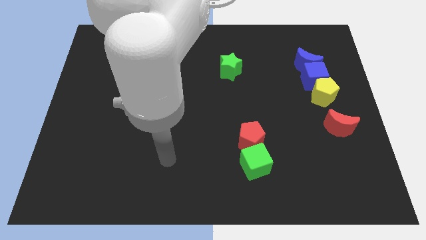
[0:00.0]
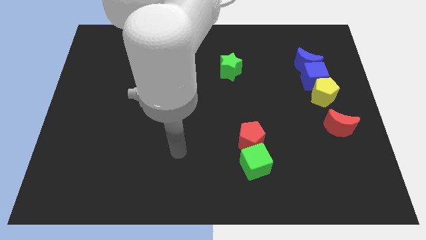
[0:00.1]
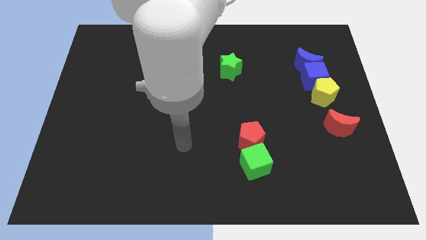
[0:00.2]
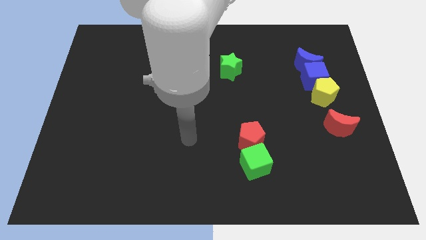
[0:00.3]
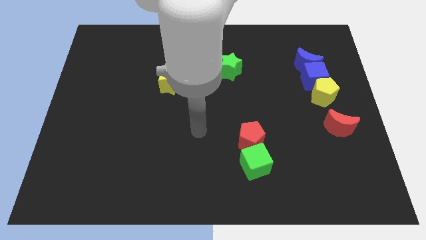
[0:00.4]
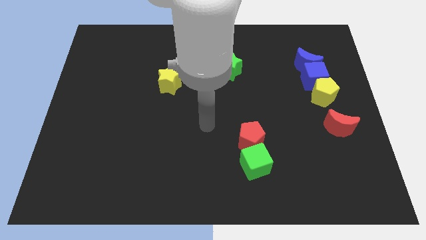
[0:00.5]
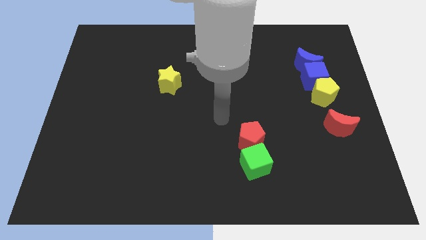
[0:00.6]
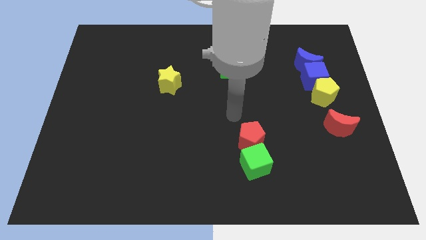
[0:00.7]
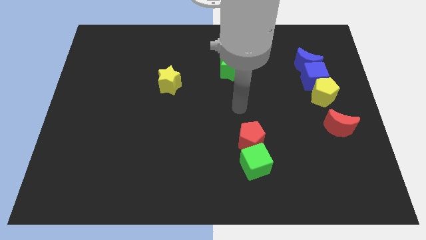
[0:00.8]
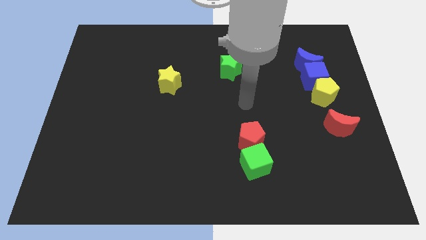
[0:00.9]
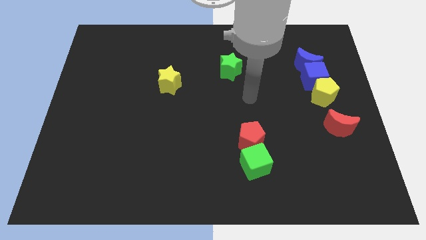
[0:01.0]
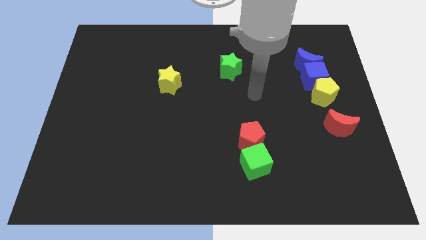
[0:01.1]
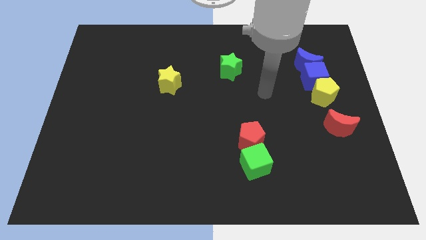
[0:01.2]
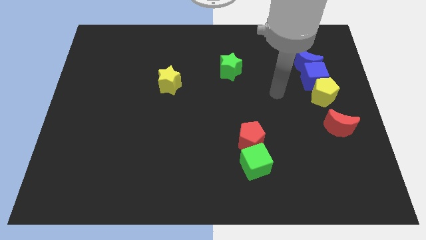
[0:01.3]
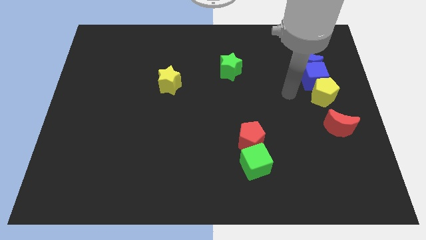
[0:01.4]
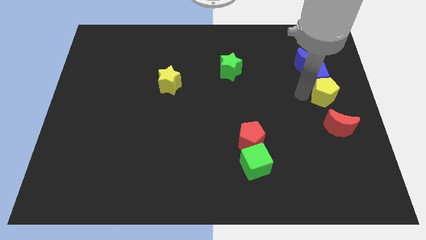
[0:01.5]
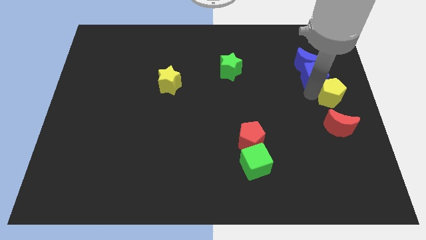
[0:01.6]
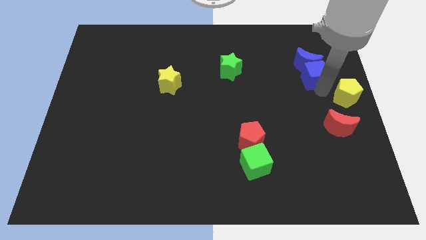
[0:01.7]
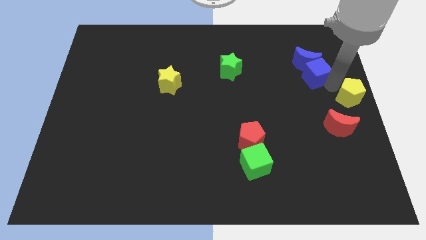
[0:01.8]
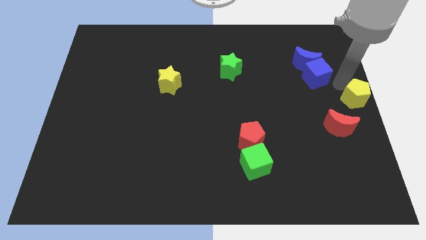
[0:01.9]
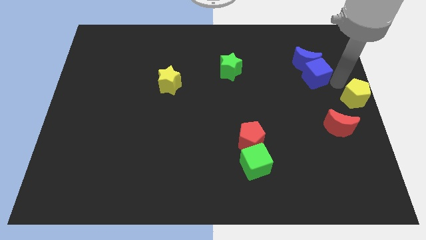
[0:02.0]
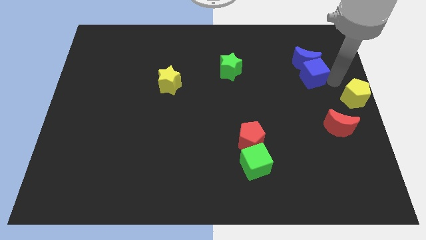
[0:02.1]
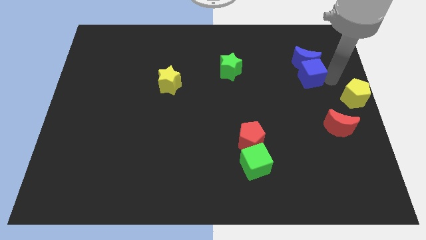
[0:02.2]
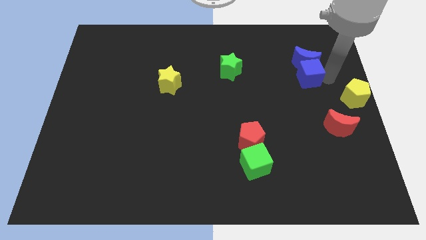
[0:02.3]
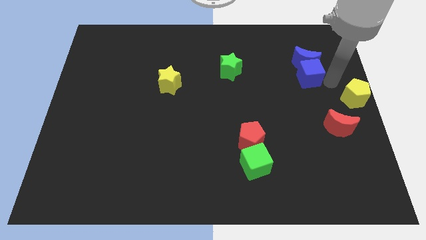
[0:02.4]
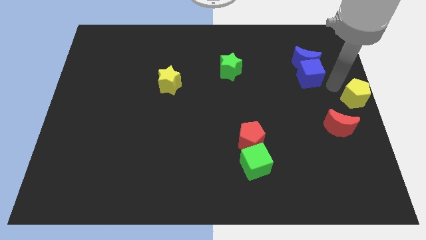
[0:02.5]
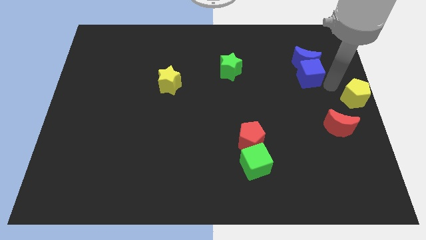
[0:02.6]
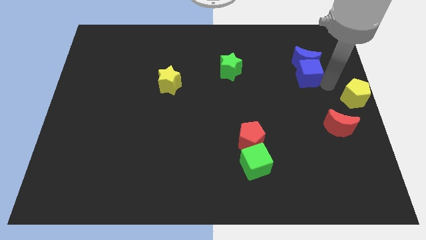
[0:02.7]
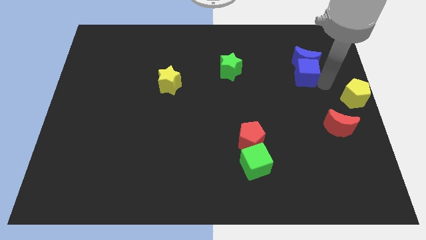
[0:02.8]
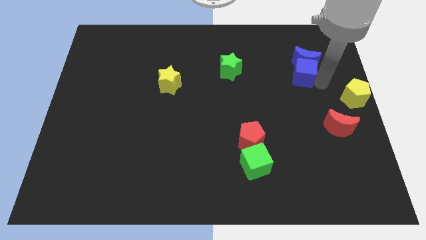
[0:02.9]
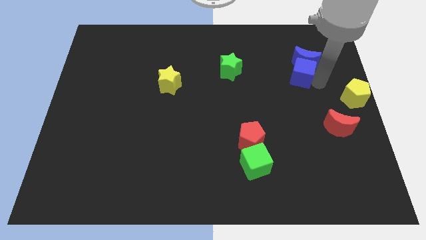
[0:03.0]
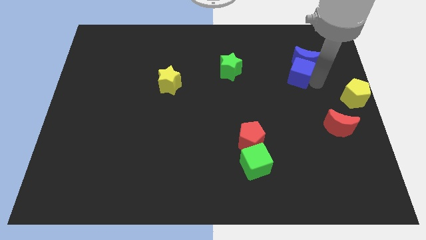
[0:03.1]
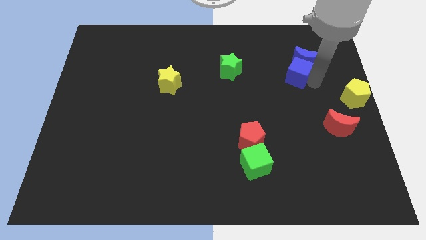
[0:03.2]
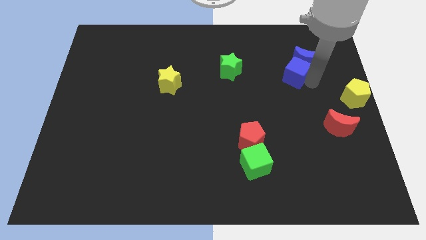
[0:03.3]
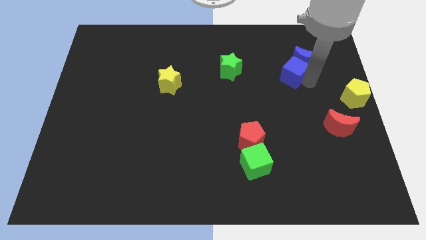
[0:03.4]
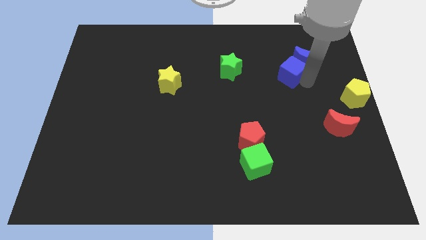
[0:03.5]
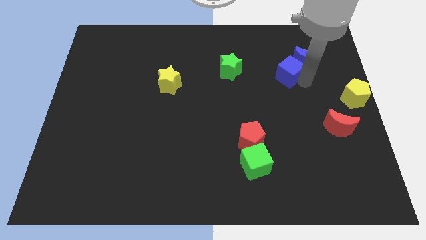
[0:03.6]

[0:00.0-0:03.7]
move the blue cube away from the blue moon and yellow pentagon

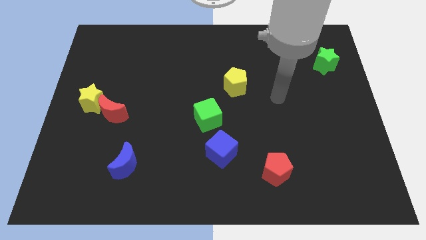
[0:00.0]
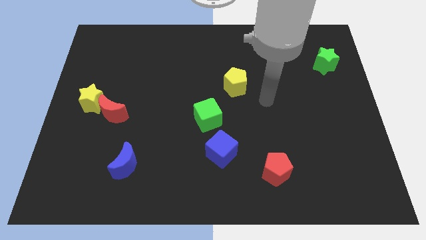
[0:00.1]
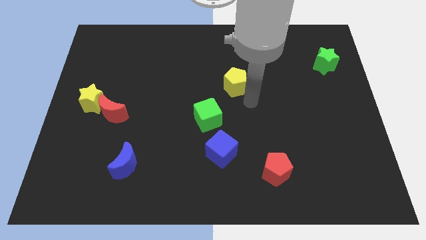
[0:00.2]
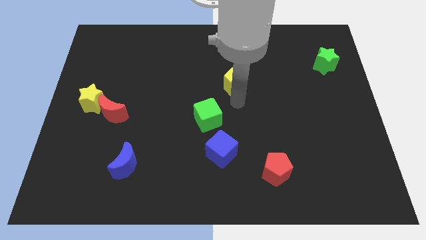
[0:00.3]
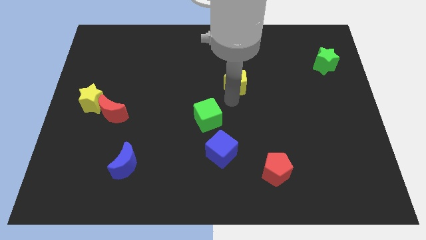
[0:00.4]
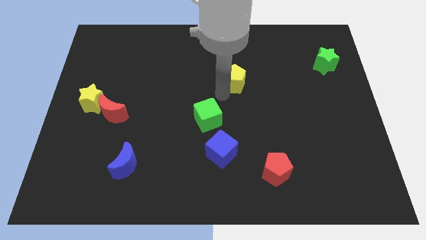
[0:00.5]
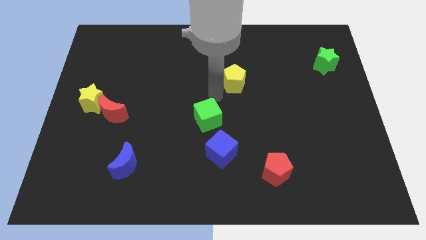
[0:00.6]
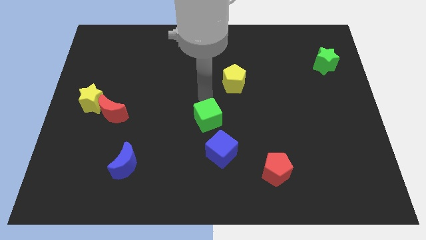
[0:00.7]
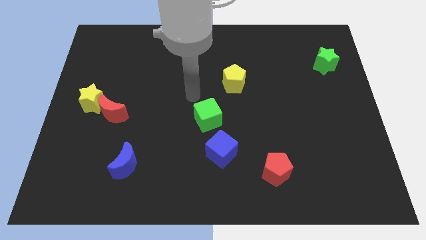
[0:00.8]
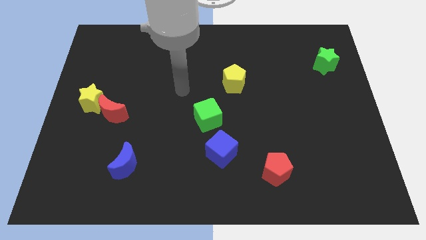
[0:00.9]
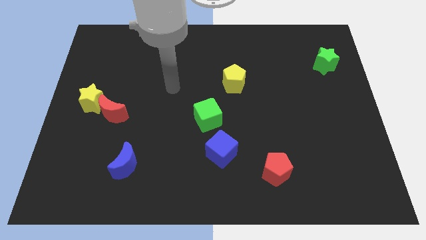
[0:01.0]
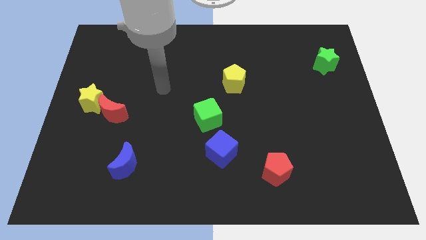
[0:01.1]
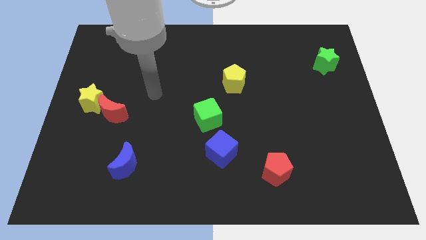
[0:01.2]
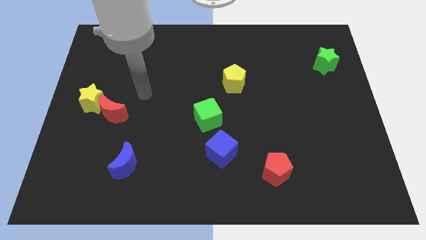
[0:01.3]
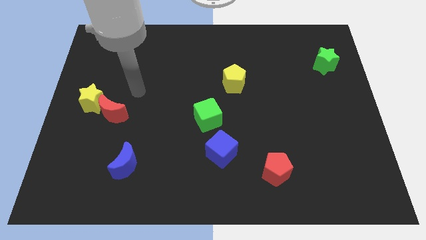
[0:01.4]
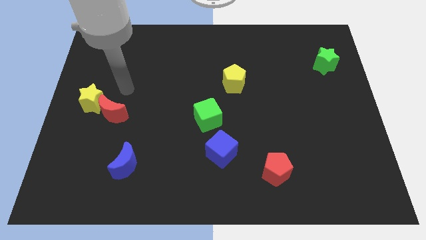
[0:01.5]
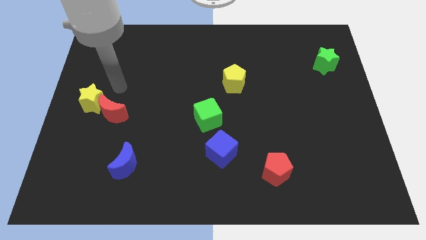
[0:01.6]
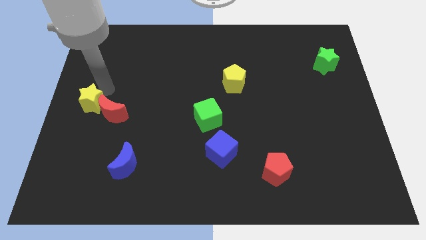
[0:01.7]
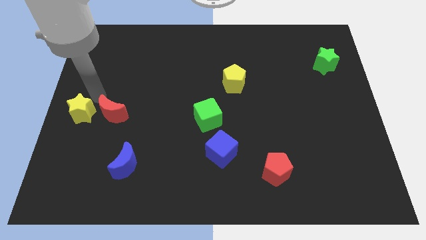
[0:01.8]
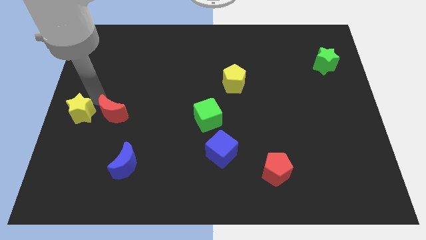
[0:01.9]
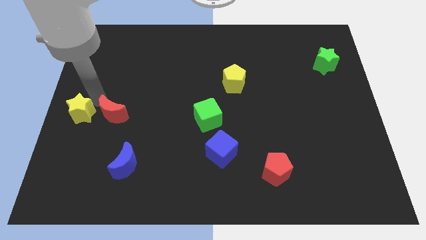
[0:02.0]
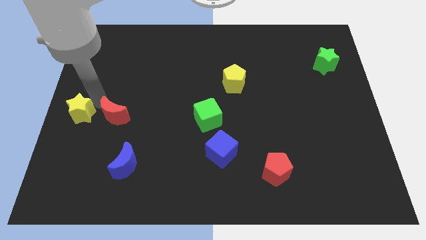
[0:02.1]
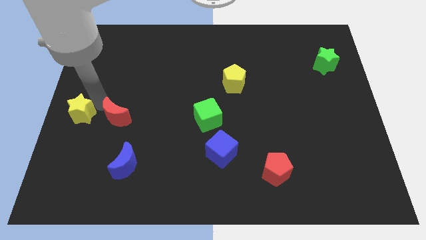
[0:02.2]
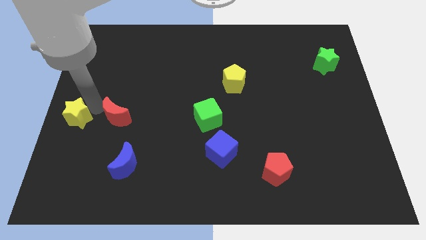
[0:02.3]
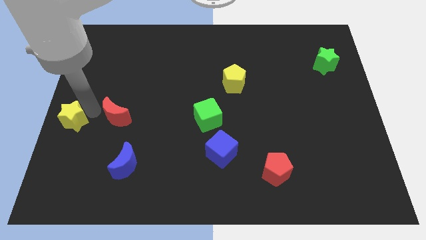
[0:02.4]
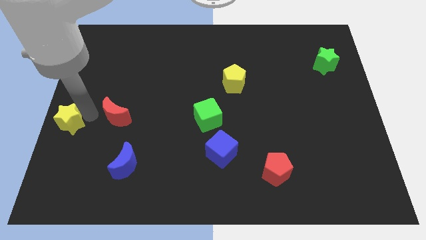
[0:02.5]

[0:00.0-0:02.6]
pull the red moon apart from the yellow star

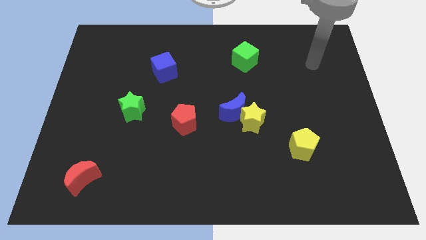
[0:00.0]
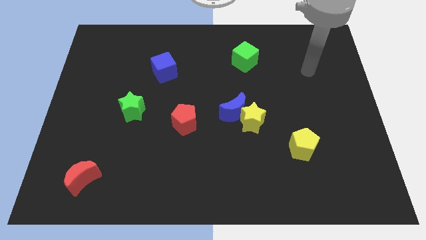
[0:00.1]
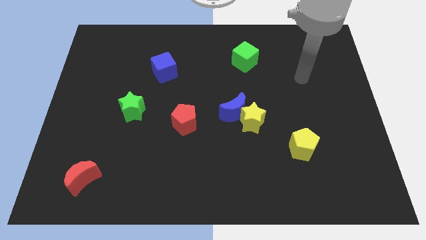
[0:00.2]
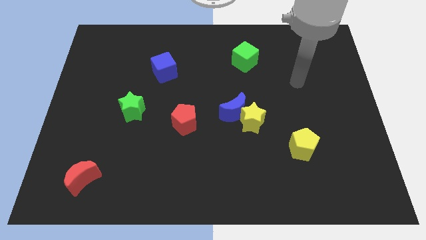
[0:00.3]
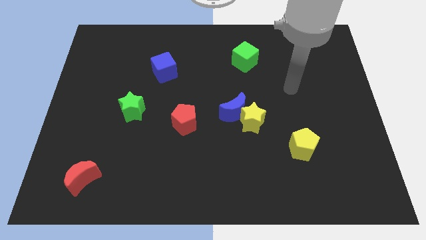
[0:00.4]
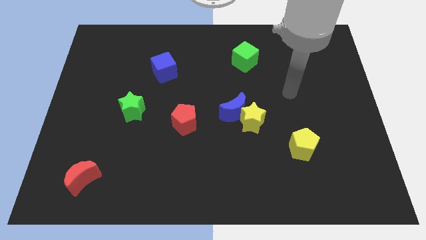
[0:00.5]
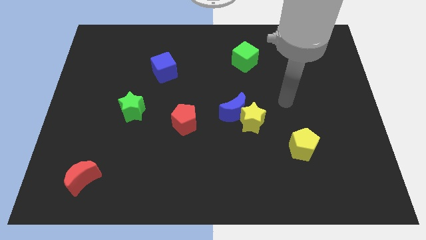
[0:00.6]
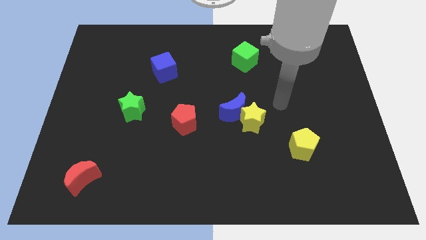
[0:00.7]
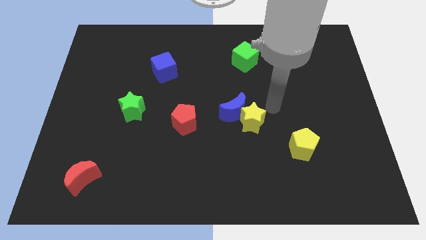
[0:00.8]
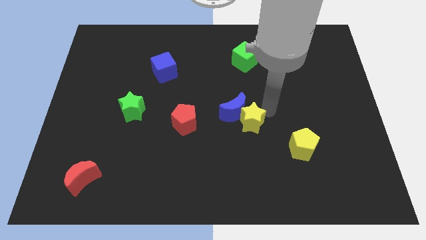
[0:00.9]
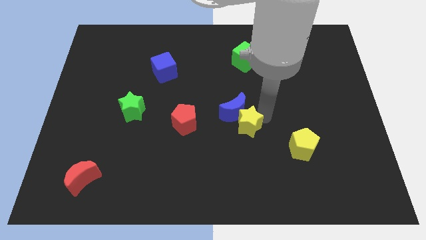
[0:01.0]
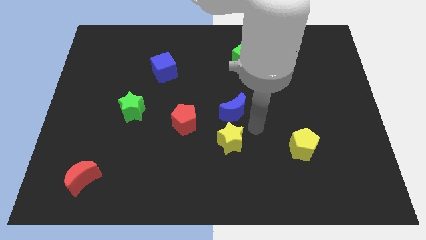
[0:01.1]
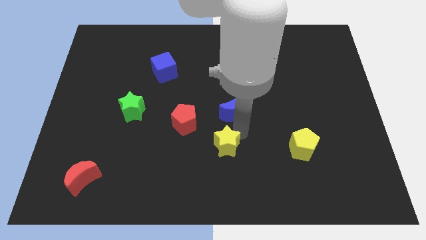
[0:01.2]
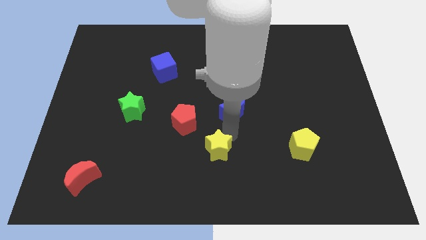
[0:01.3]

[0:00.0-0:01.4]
separate the blue moon from the yellow star

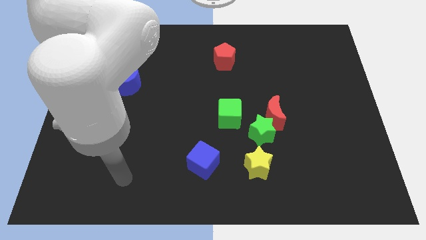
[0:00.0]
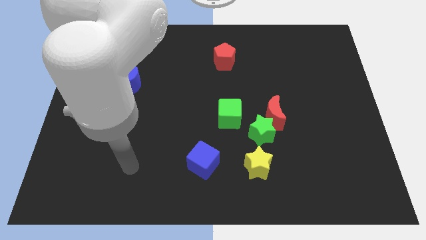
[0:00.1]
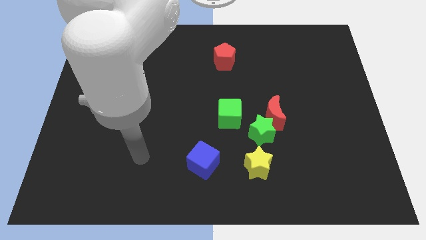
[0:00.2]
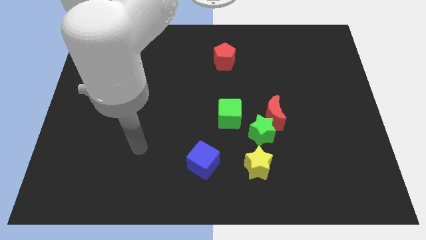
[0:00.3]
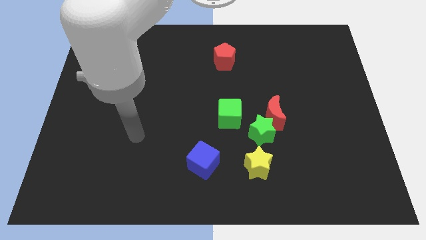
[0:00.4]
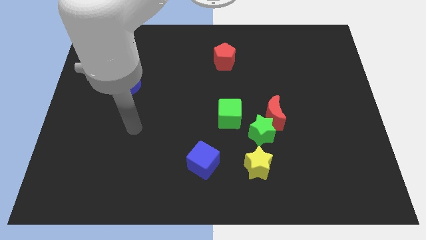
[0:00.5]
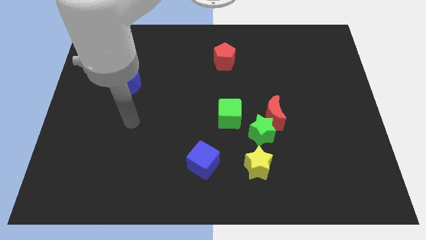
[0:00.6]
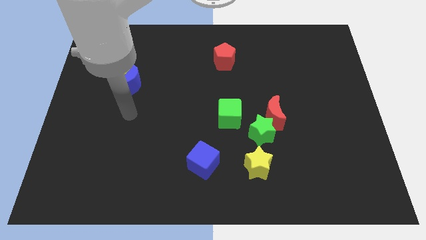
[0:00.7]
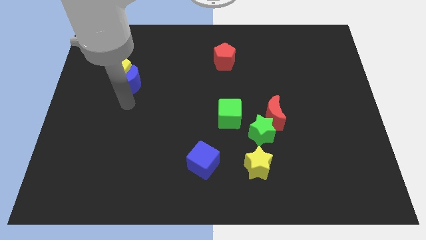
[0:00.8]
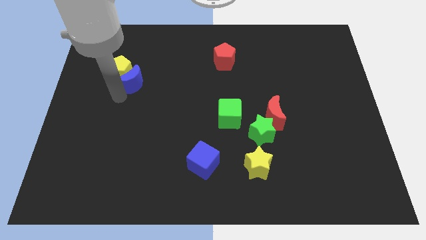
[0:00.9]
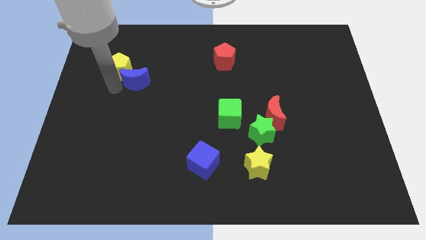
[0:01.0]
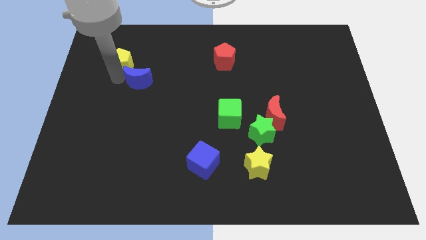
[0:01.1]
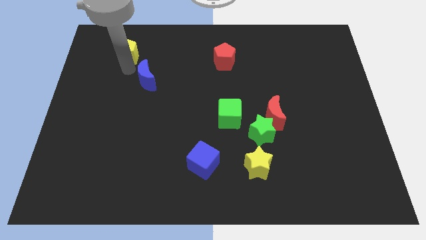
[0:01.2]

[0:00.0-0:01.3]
pull the blue moon apart from the yellow pentagon

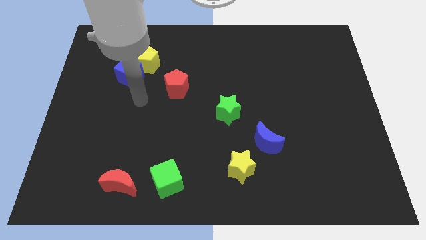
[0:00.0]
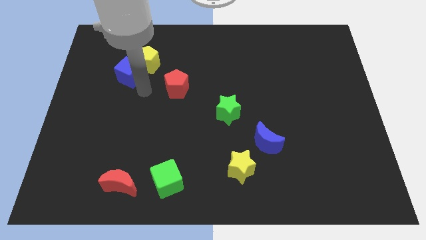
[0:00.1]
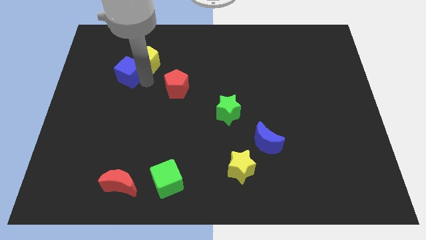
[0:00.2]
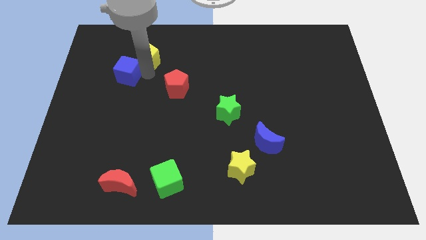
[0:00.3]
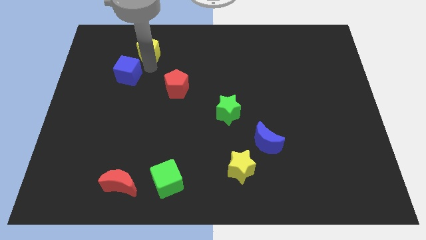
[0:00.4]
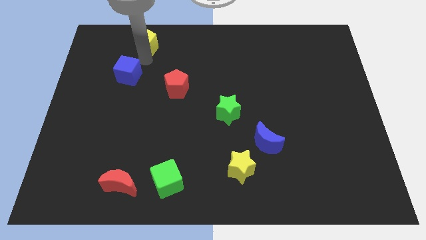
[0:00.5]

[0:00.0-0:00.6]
pull the blue cube apart from the yellow pentagon
